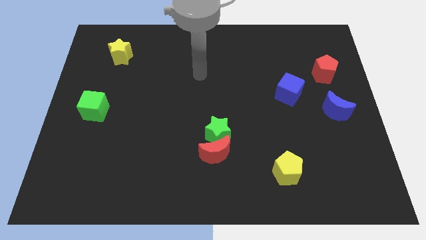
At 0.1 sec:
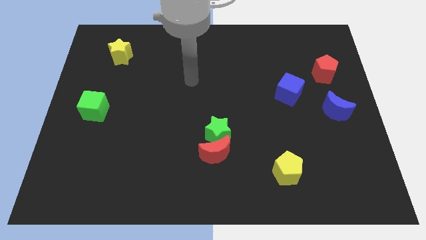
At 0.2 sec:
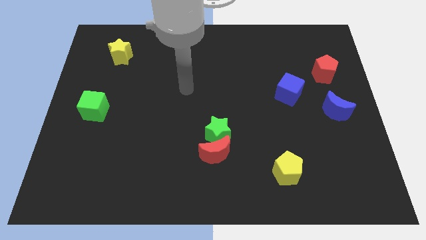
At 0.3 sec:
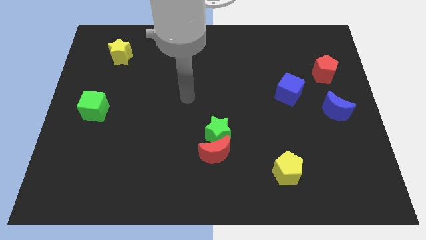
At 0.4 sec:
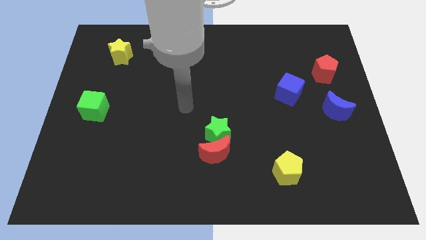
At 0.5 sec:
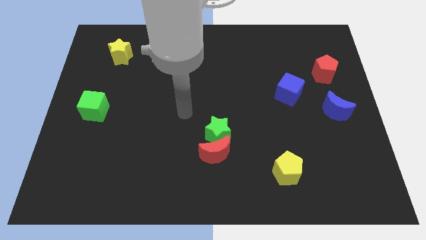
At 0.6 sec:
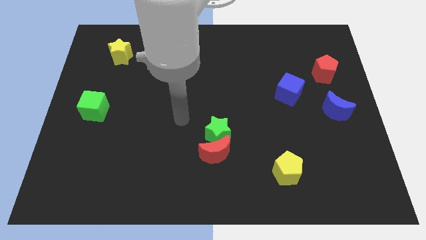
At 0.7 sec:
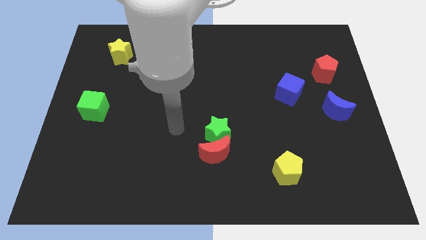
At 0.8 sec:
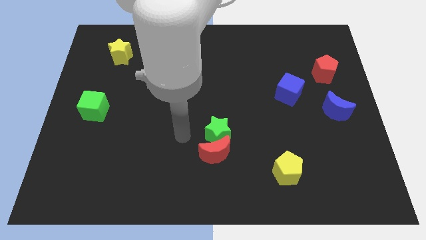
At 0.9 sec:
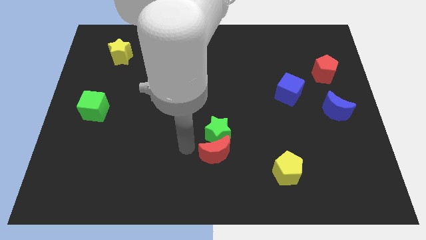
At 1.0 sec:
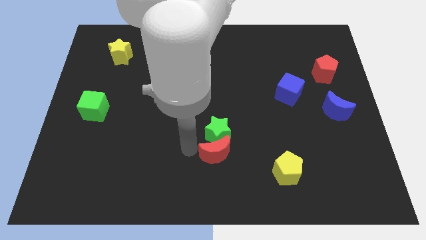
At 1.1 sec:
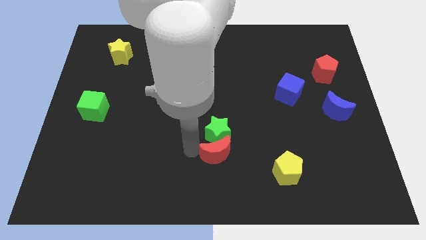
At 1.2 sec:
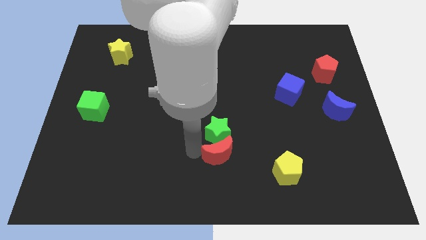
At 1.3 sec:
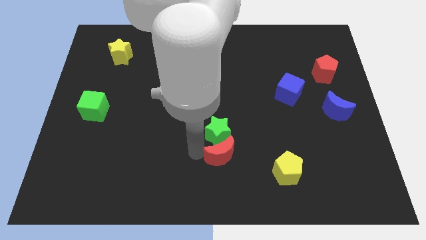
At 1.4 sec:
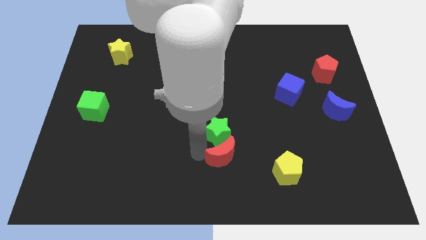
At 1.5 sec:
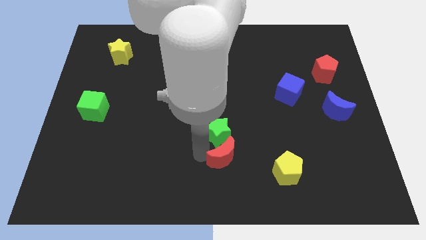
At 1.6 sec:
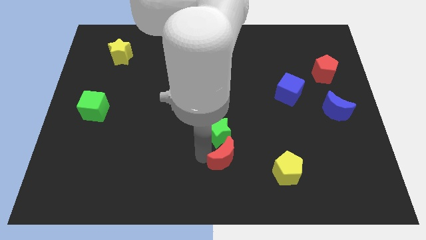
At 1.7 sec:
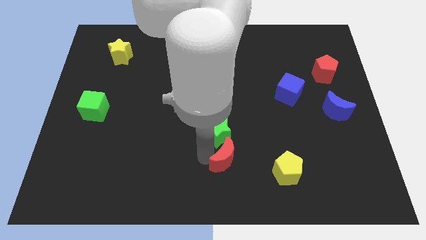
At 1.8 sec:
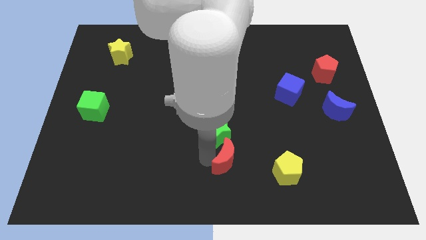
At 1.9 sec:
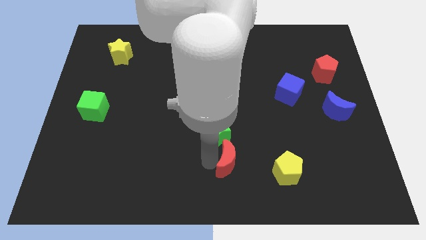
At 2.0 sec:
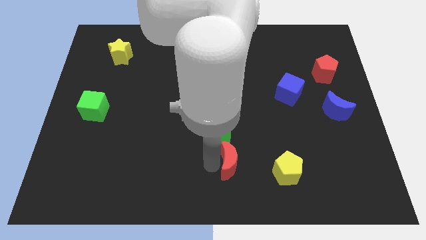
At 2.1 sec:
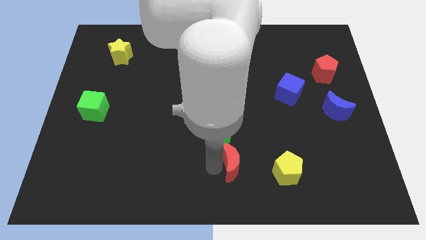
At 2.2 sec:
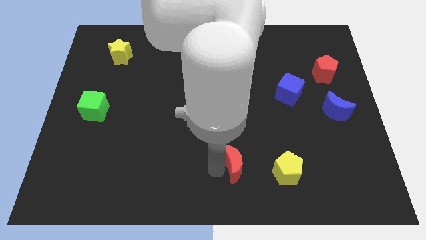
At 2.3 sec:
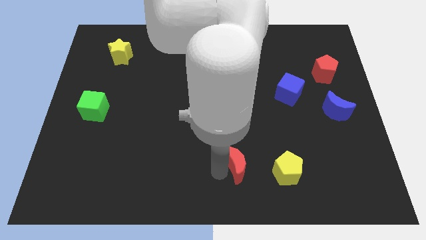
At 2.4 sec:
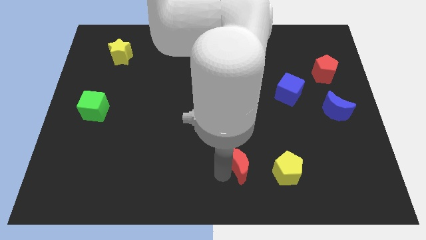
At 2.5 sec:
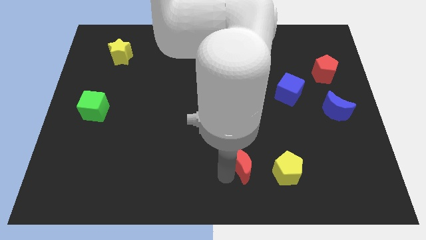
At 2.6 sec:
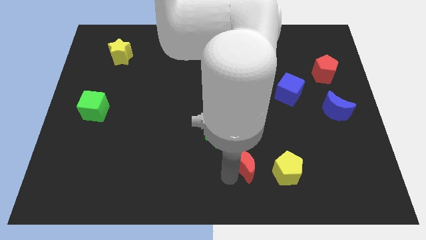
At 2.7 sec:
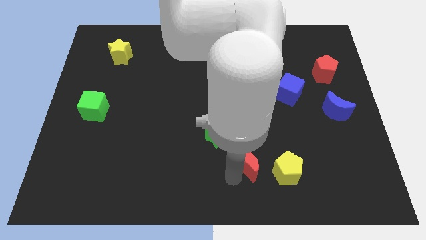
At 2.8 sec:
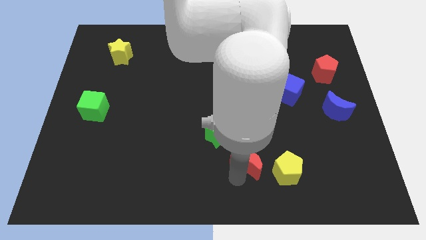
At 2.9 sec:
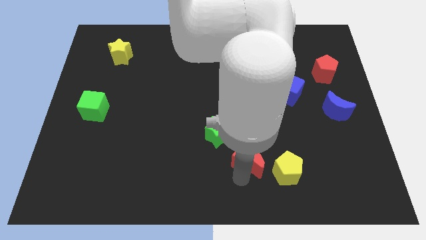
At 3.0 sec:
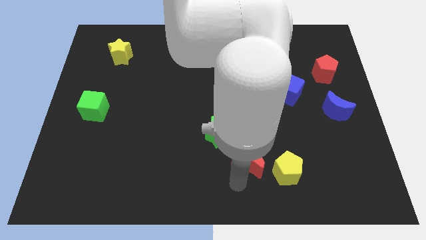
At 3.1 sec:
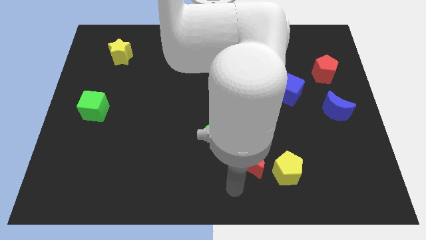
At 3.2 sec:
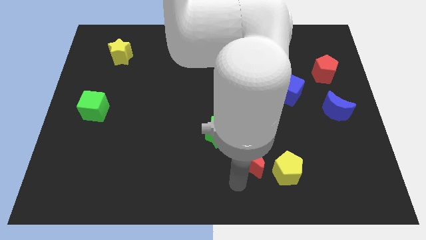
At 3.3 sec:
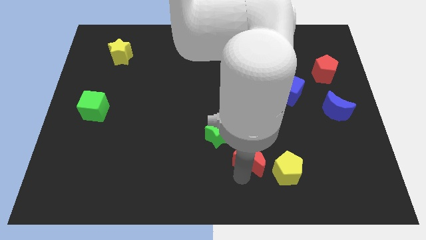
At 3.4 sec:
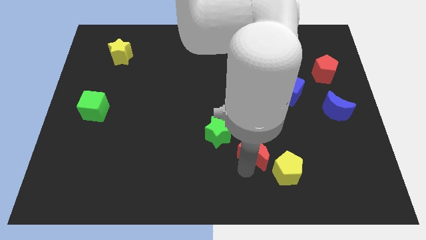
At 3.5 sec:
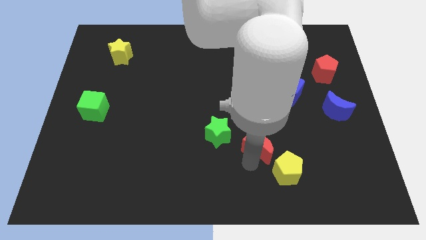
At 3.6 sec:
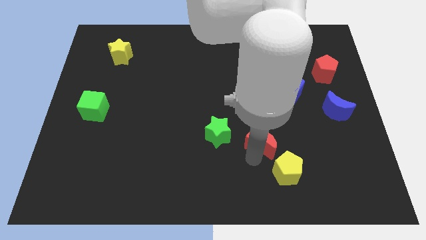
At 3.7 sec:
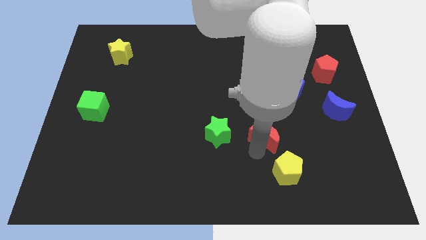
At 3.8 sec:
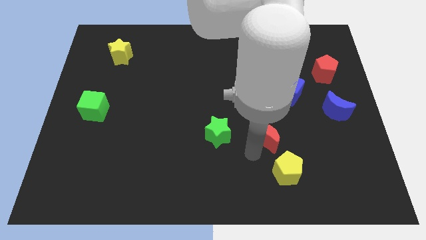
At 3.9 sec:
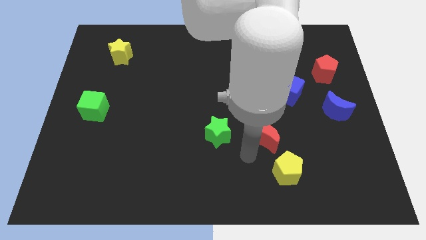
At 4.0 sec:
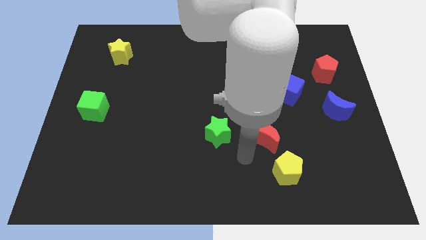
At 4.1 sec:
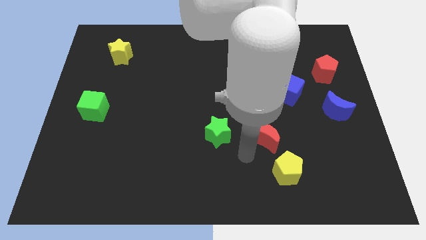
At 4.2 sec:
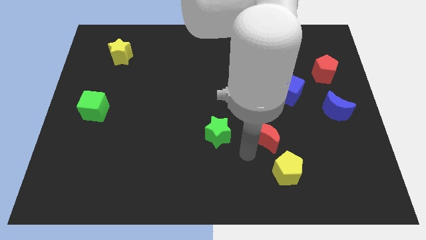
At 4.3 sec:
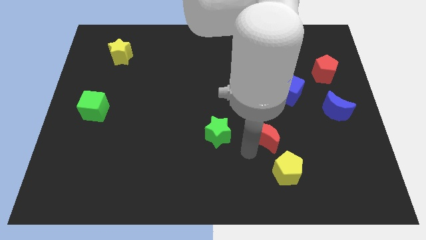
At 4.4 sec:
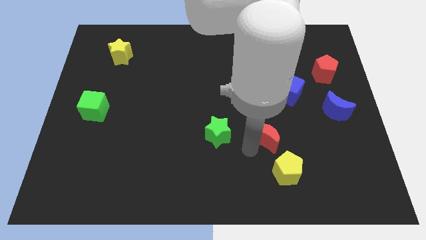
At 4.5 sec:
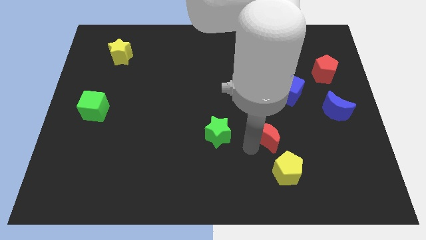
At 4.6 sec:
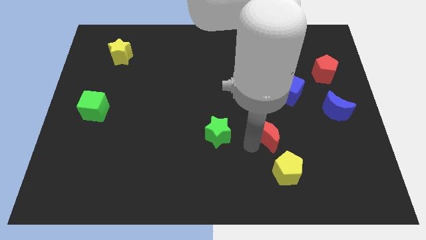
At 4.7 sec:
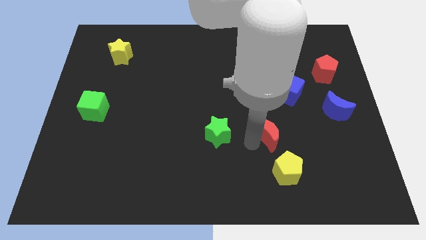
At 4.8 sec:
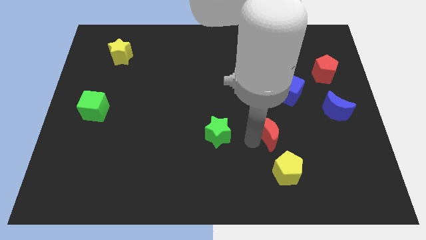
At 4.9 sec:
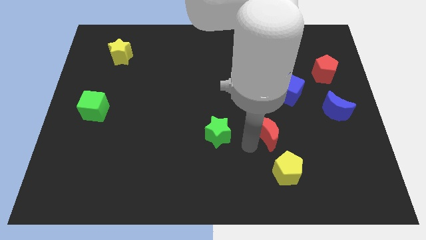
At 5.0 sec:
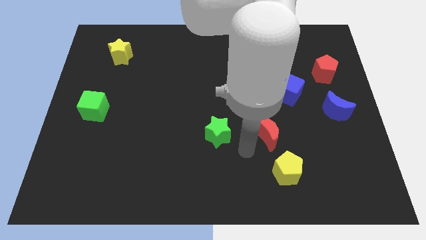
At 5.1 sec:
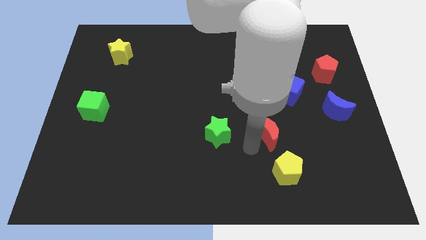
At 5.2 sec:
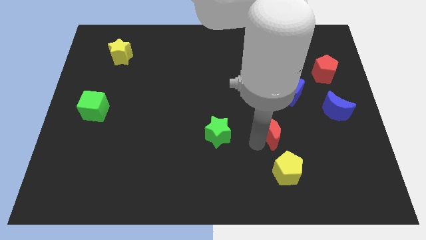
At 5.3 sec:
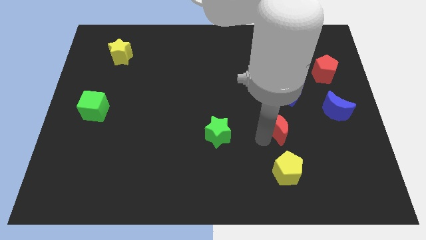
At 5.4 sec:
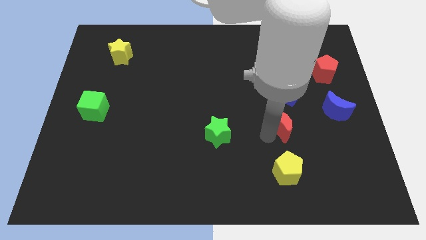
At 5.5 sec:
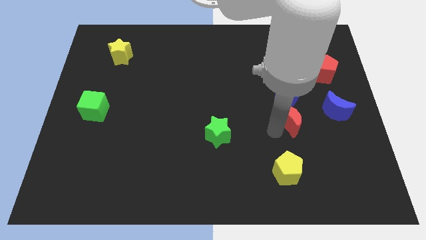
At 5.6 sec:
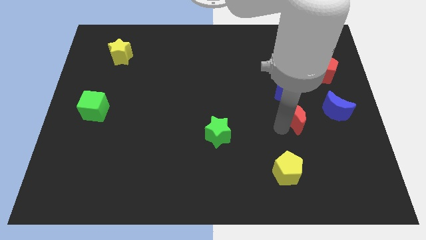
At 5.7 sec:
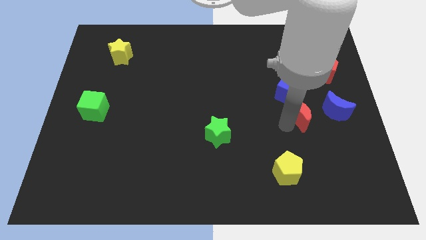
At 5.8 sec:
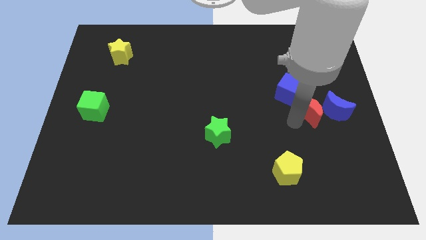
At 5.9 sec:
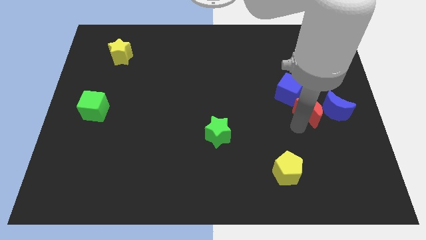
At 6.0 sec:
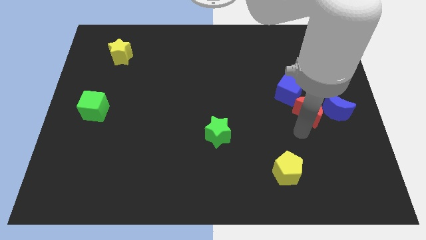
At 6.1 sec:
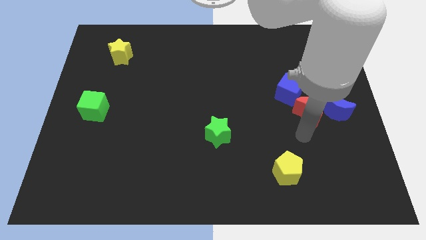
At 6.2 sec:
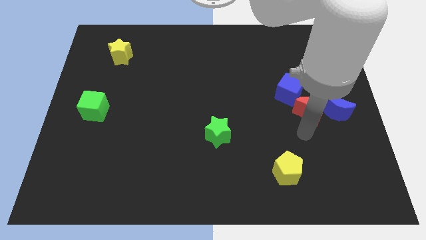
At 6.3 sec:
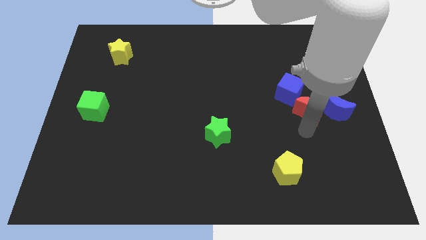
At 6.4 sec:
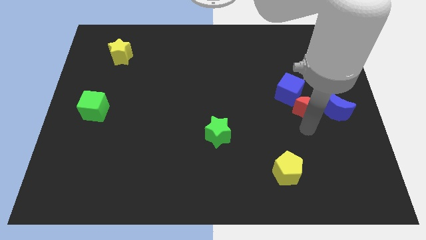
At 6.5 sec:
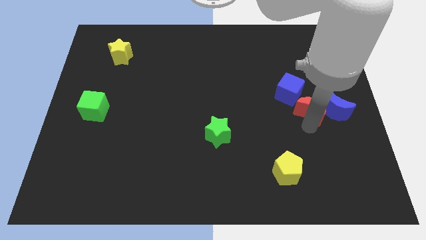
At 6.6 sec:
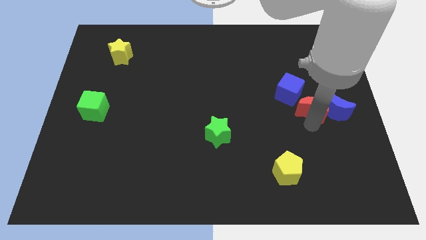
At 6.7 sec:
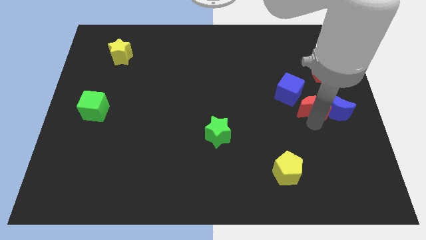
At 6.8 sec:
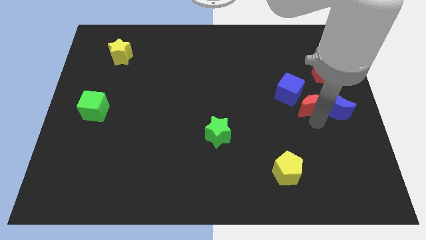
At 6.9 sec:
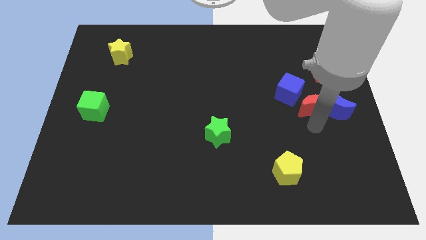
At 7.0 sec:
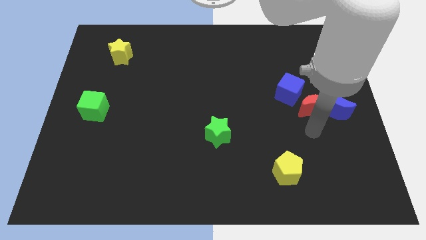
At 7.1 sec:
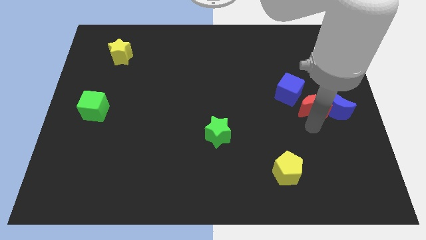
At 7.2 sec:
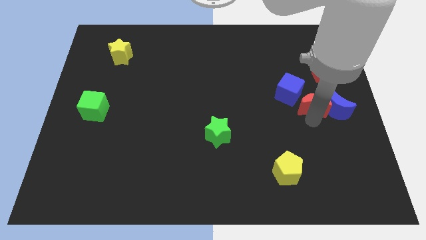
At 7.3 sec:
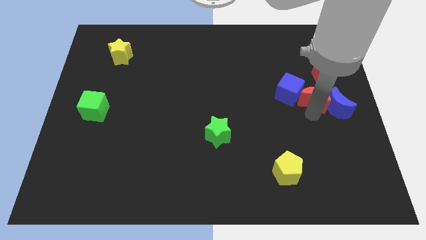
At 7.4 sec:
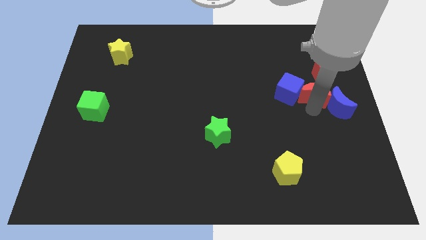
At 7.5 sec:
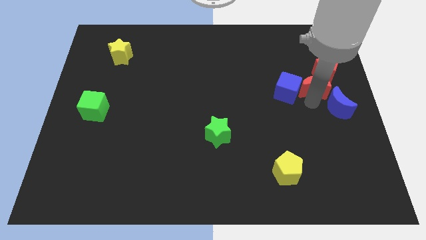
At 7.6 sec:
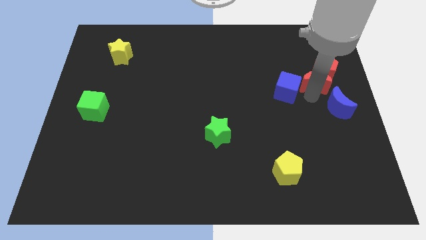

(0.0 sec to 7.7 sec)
put the red moon close to the red pentagon

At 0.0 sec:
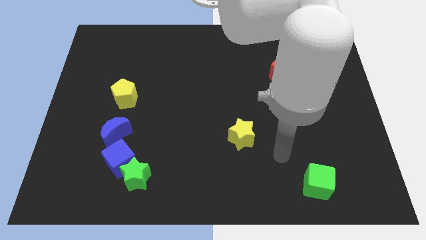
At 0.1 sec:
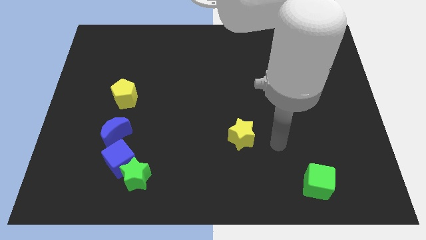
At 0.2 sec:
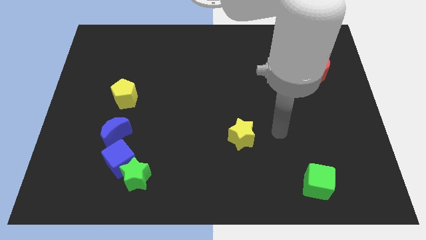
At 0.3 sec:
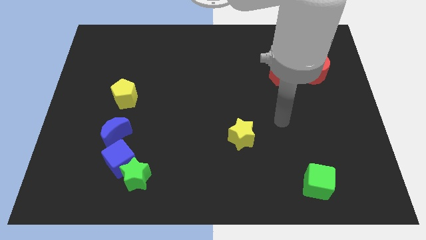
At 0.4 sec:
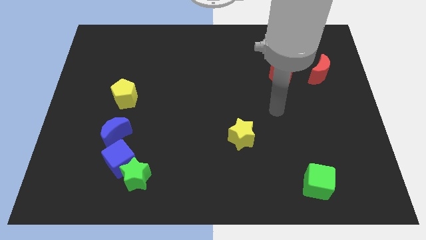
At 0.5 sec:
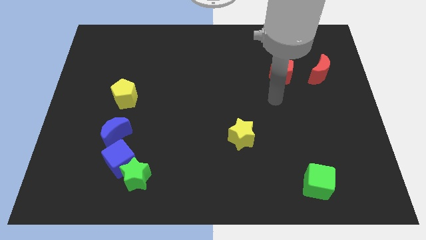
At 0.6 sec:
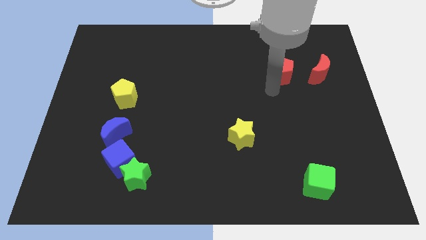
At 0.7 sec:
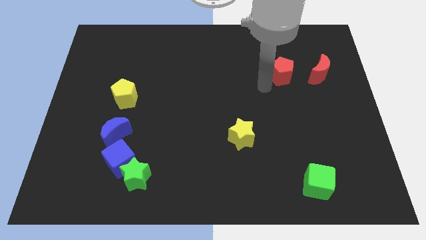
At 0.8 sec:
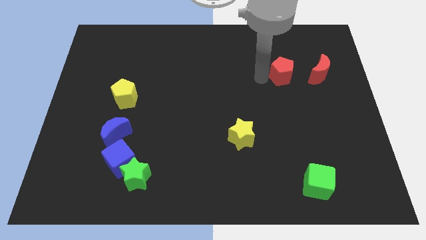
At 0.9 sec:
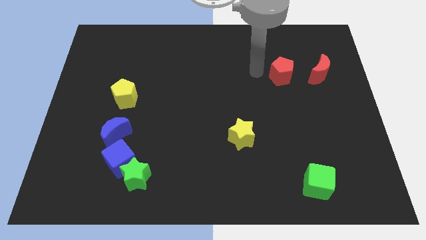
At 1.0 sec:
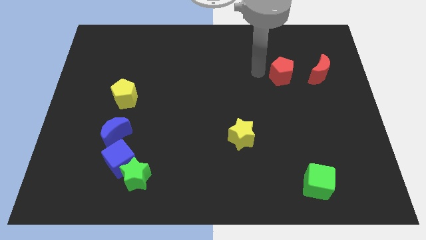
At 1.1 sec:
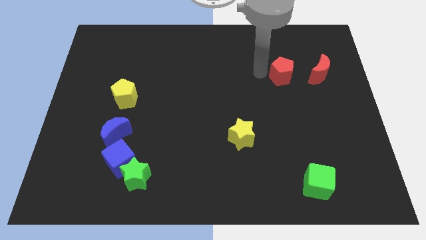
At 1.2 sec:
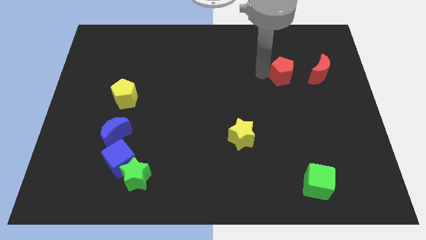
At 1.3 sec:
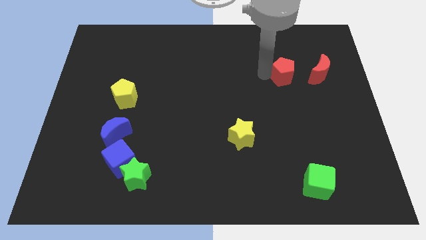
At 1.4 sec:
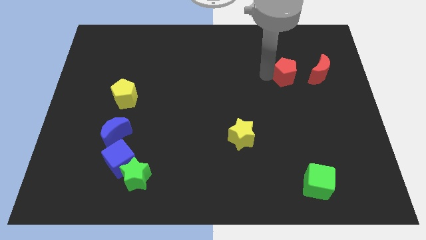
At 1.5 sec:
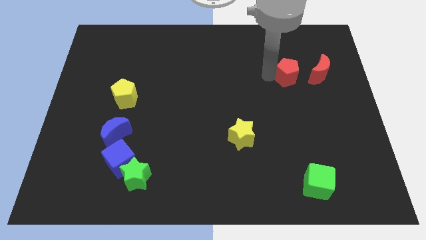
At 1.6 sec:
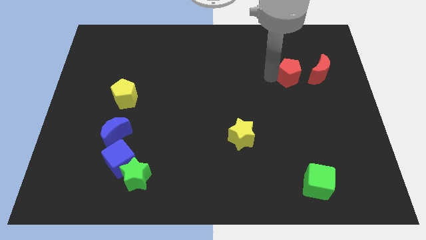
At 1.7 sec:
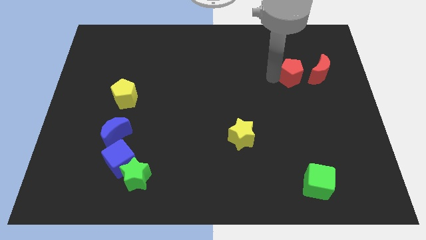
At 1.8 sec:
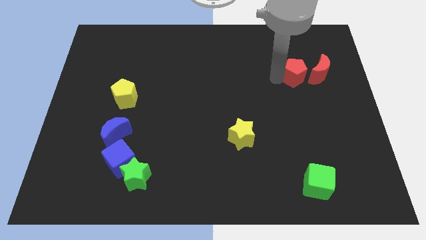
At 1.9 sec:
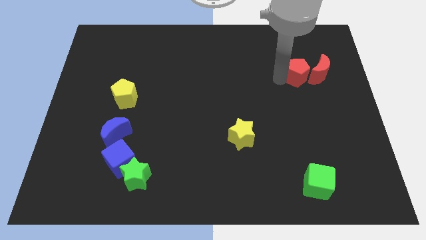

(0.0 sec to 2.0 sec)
slide the red pentagon to the red moon
